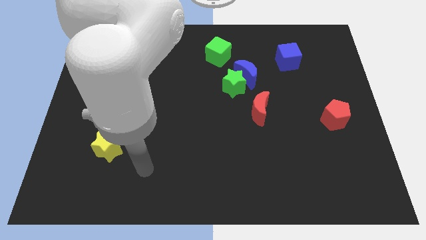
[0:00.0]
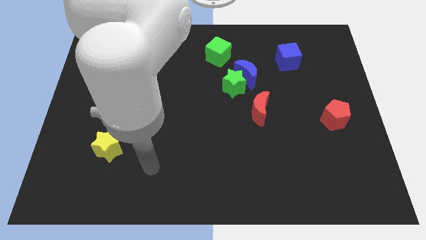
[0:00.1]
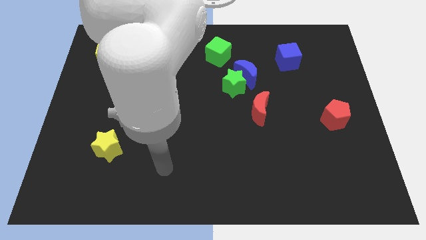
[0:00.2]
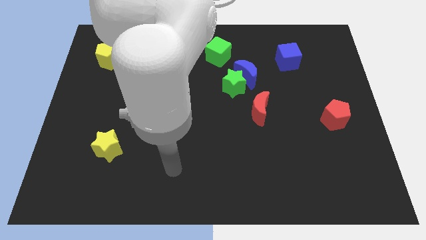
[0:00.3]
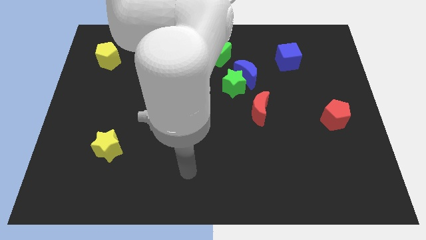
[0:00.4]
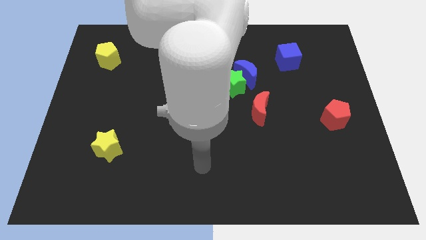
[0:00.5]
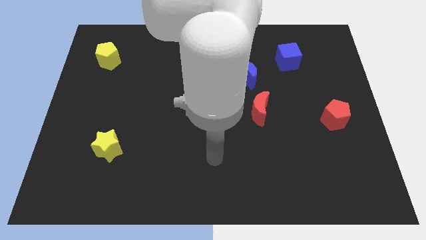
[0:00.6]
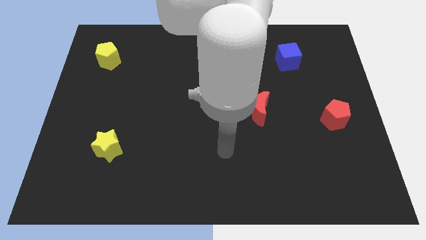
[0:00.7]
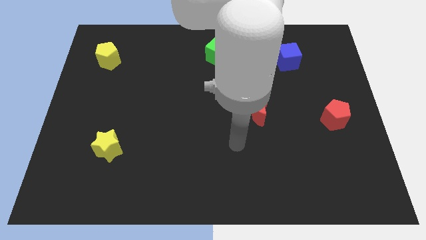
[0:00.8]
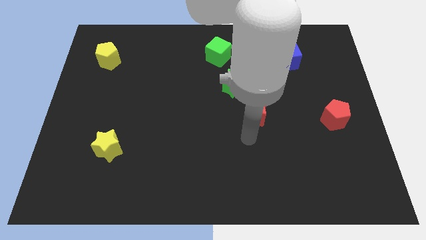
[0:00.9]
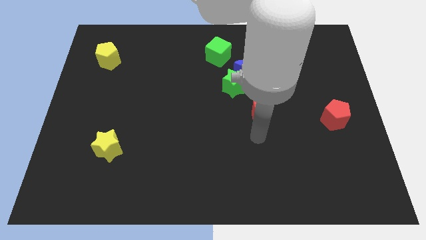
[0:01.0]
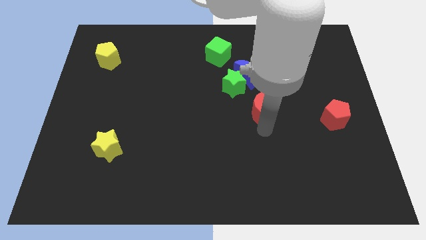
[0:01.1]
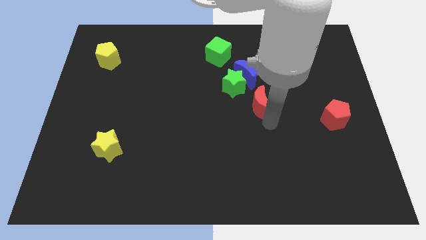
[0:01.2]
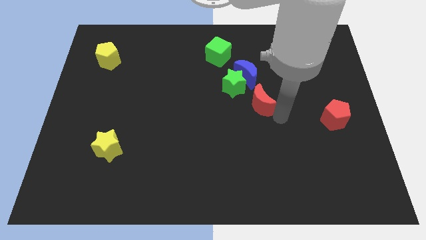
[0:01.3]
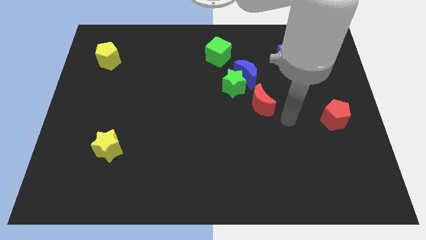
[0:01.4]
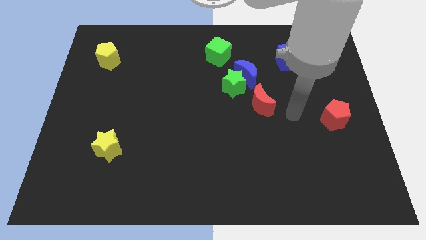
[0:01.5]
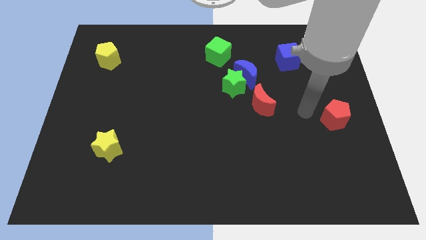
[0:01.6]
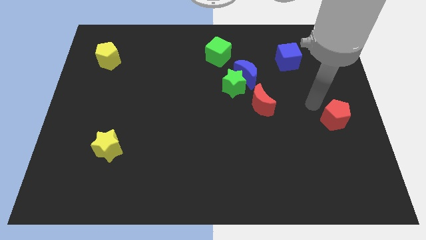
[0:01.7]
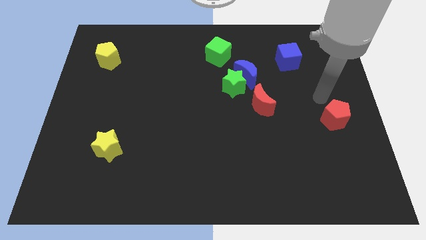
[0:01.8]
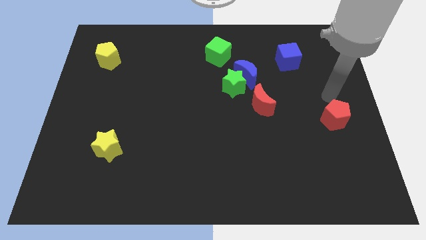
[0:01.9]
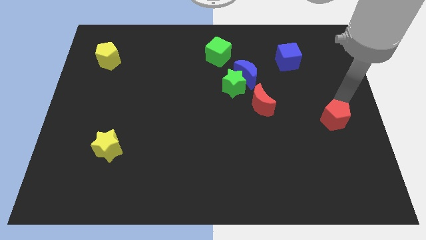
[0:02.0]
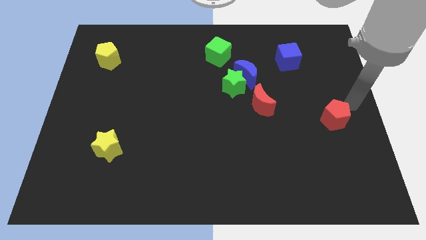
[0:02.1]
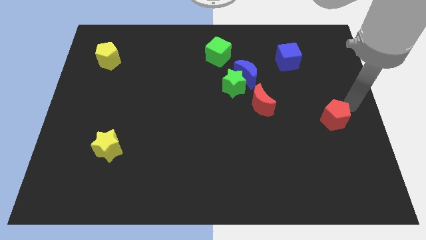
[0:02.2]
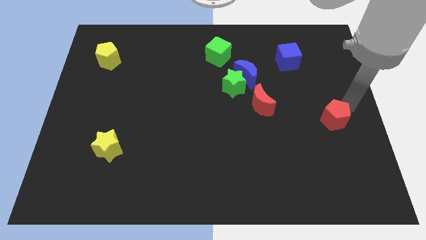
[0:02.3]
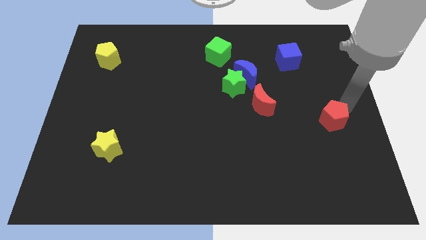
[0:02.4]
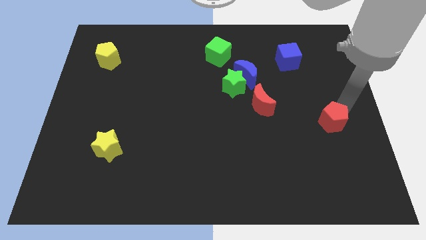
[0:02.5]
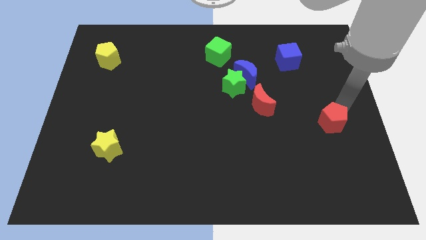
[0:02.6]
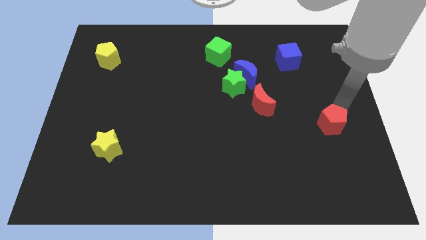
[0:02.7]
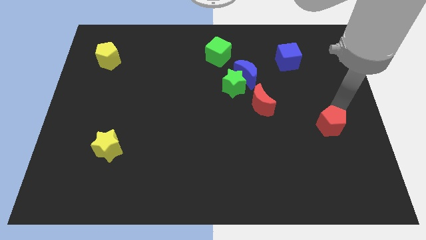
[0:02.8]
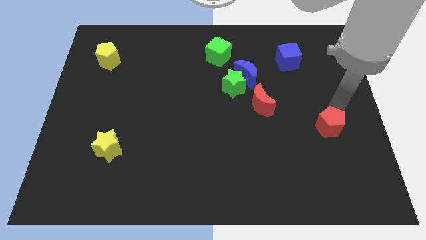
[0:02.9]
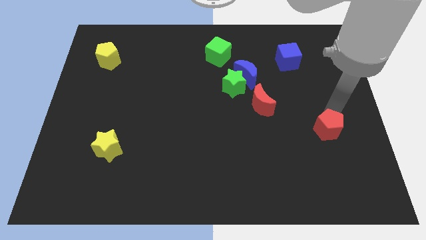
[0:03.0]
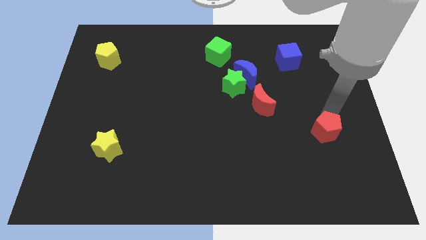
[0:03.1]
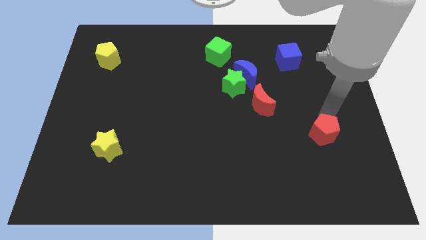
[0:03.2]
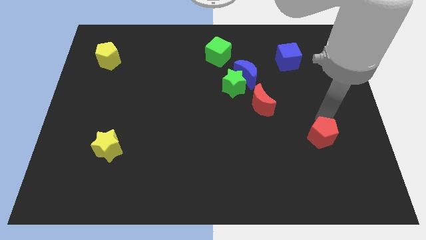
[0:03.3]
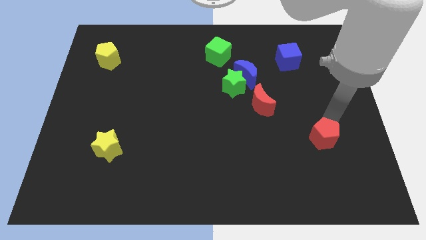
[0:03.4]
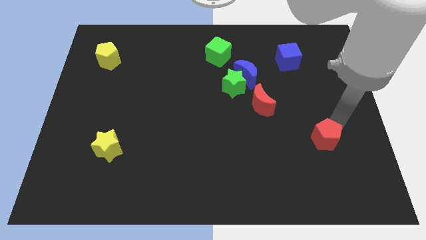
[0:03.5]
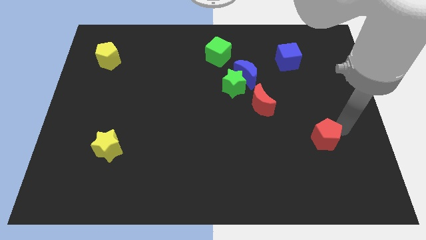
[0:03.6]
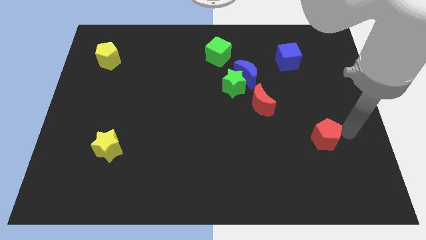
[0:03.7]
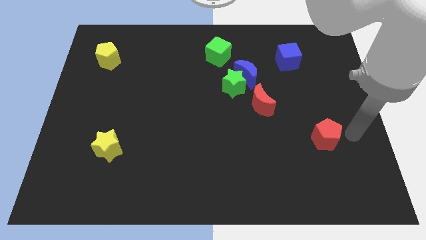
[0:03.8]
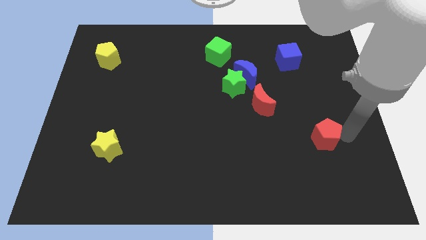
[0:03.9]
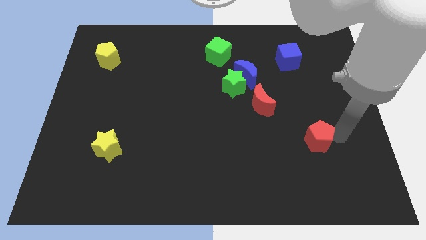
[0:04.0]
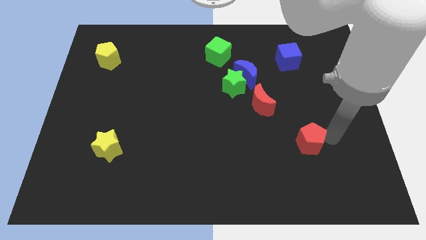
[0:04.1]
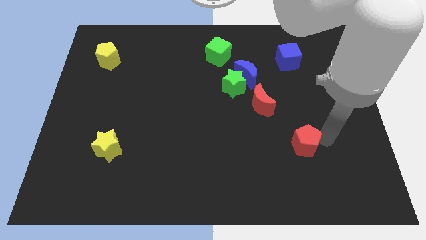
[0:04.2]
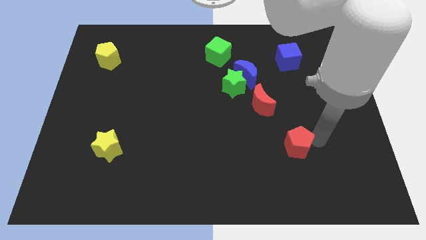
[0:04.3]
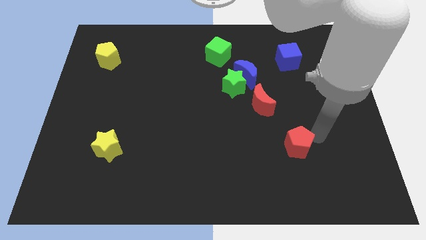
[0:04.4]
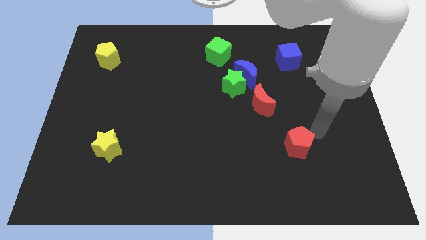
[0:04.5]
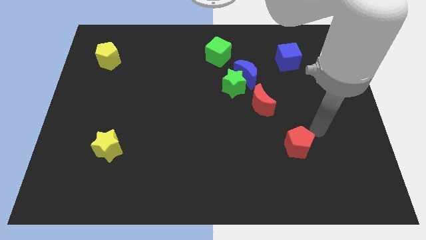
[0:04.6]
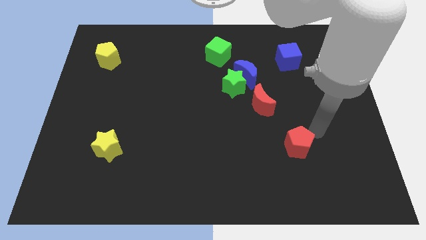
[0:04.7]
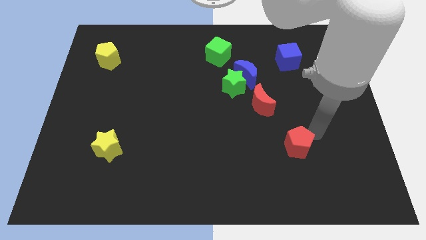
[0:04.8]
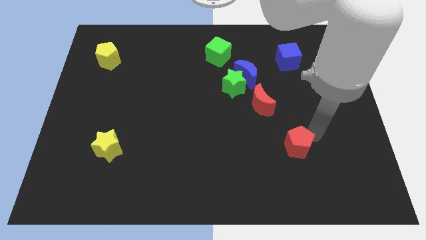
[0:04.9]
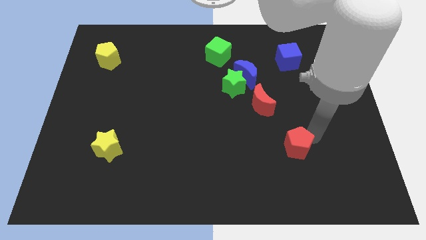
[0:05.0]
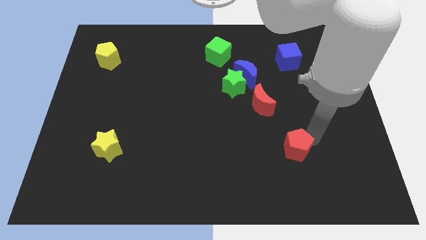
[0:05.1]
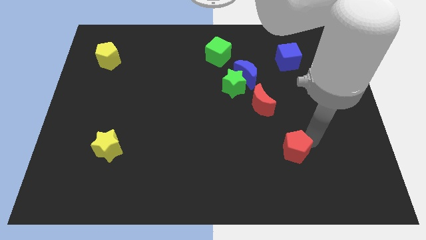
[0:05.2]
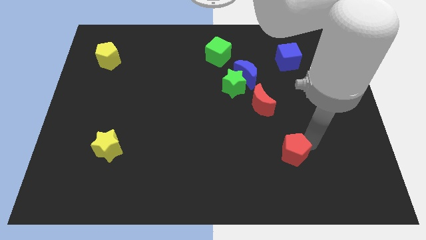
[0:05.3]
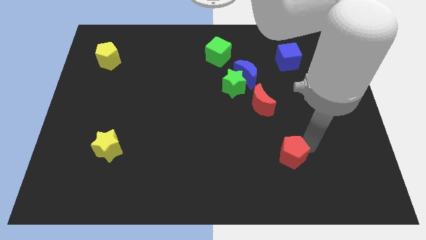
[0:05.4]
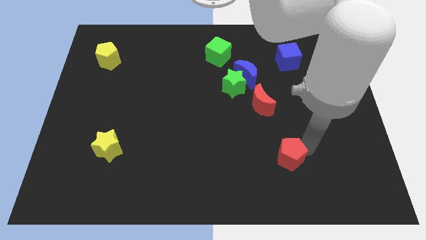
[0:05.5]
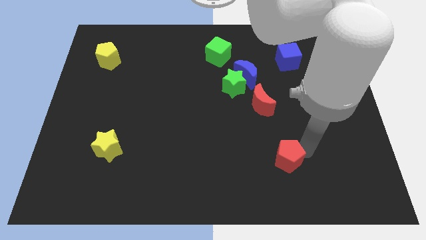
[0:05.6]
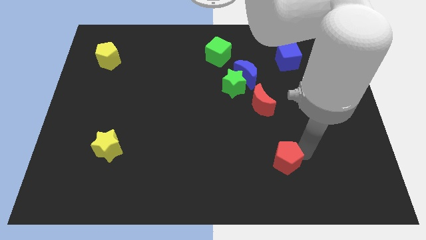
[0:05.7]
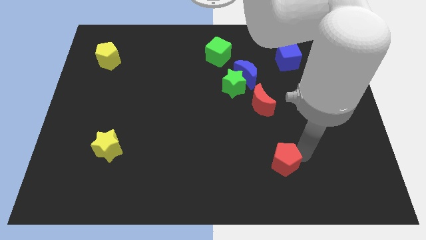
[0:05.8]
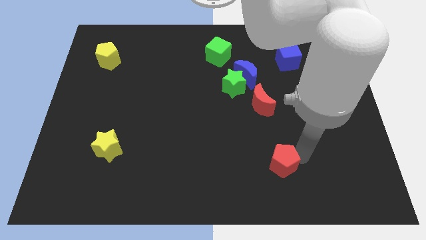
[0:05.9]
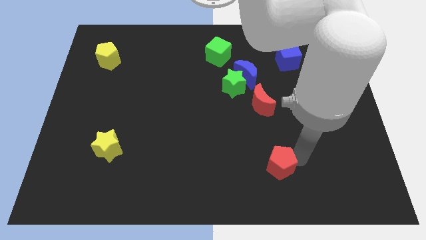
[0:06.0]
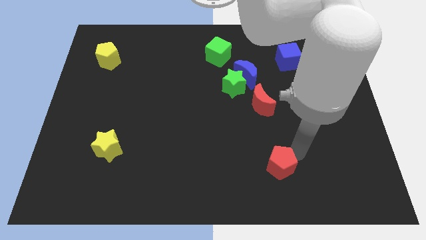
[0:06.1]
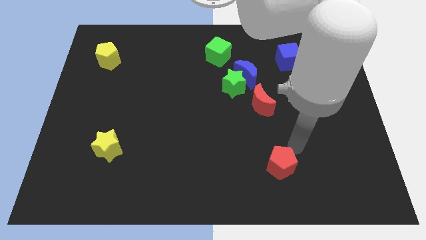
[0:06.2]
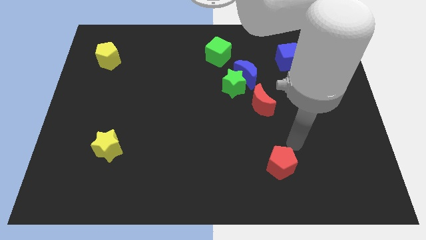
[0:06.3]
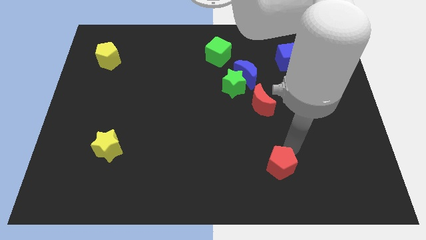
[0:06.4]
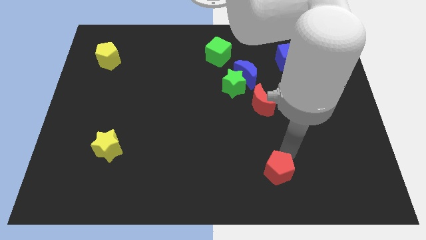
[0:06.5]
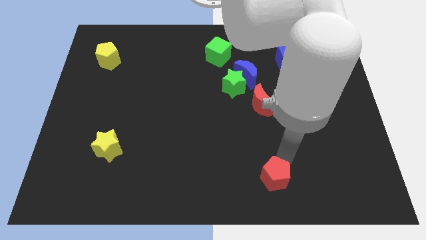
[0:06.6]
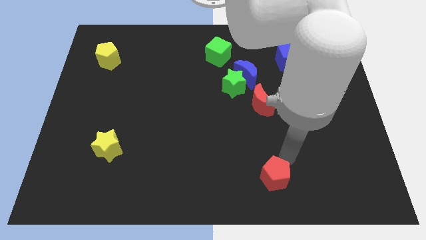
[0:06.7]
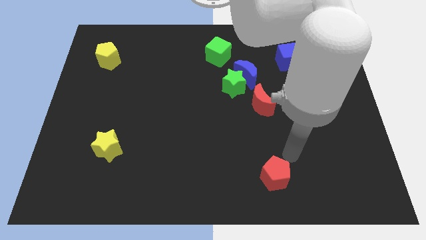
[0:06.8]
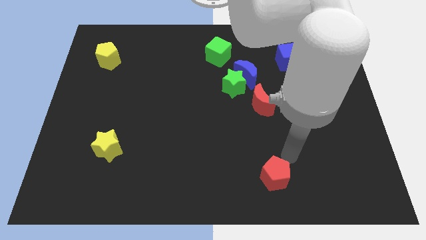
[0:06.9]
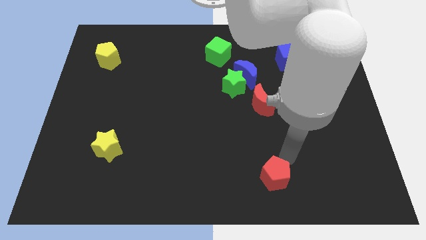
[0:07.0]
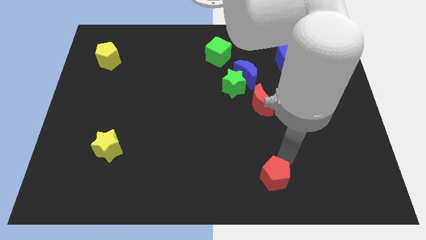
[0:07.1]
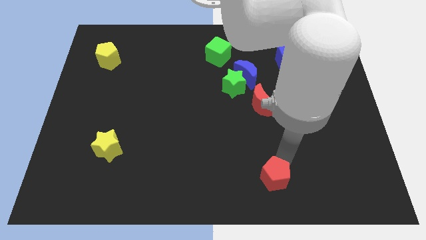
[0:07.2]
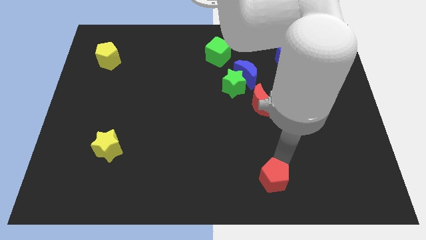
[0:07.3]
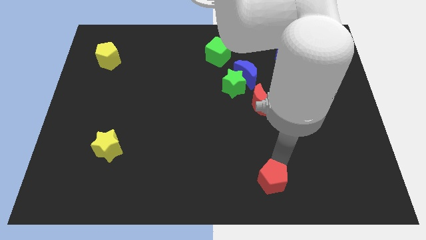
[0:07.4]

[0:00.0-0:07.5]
push the red pentagon to the bottom side
